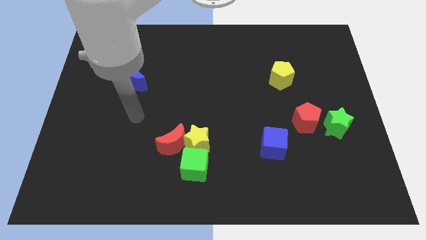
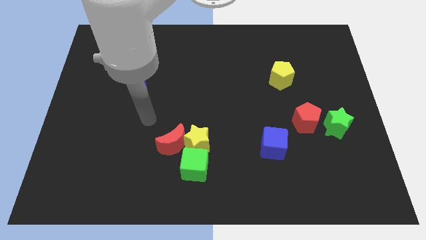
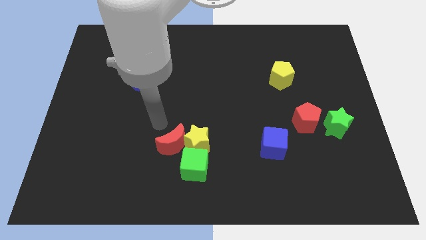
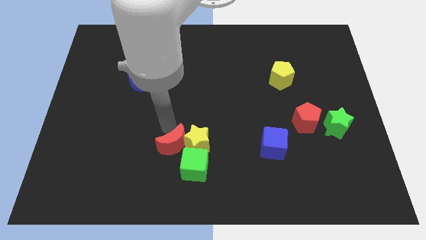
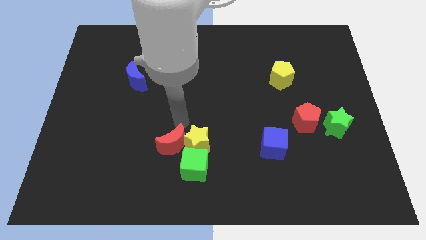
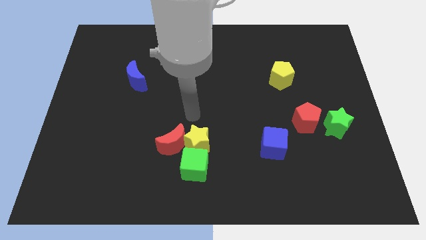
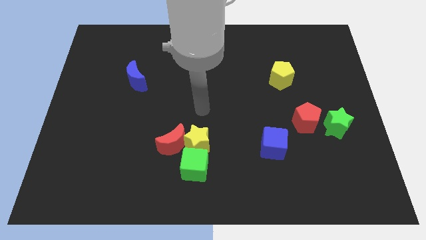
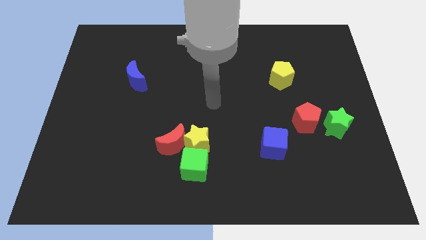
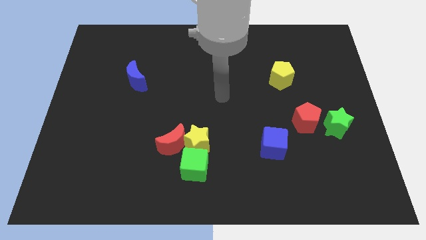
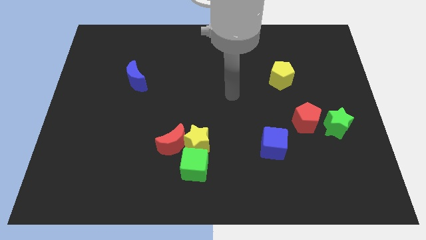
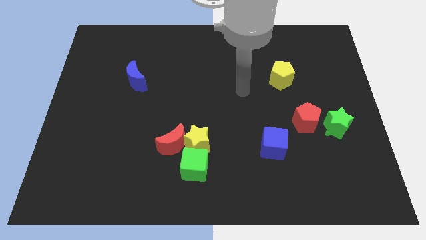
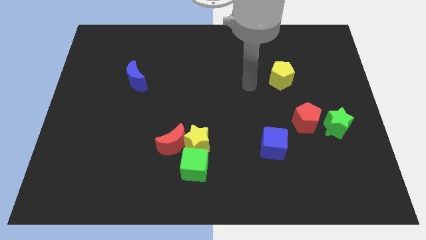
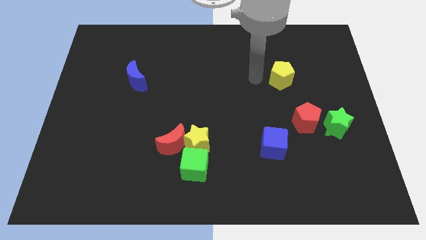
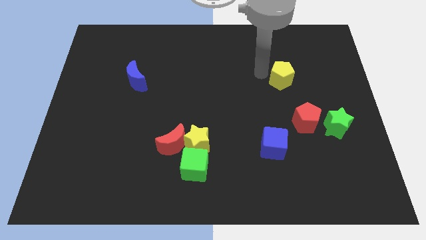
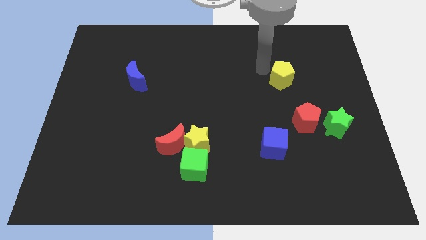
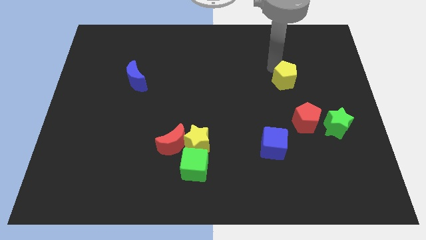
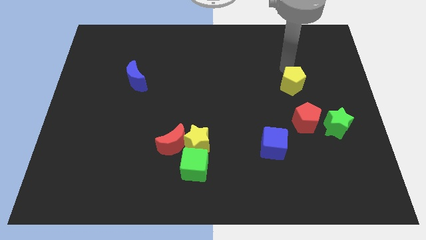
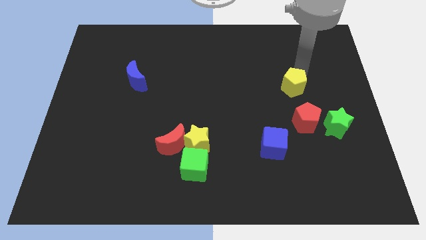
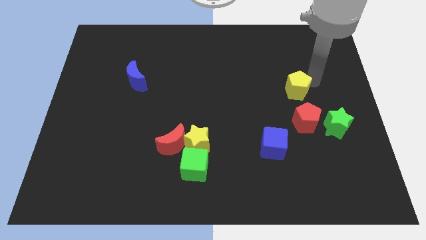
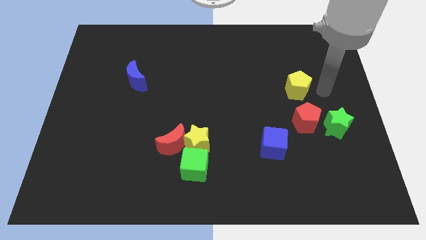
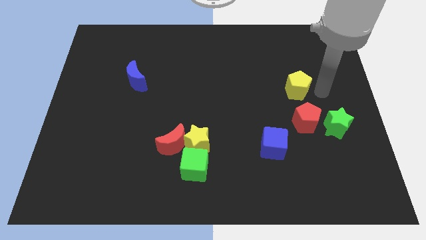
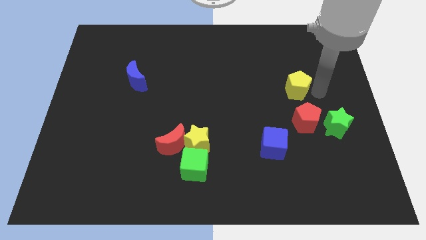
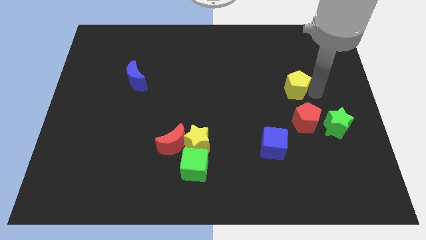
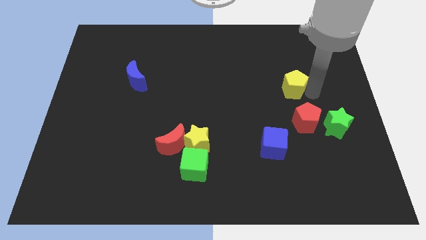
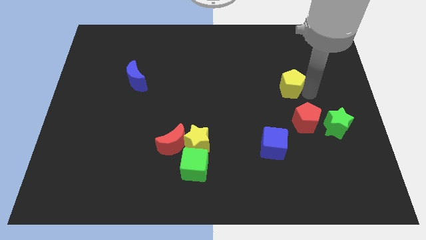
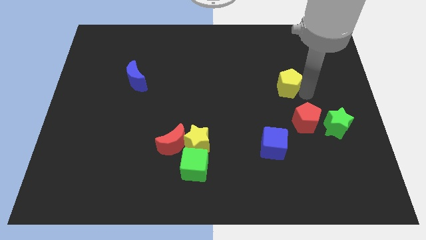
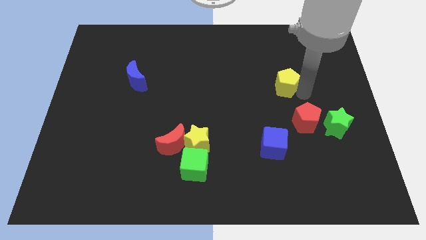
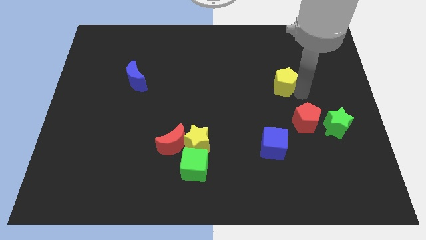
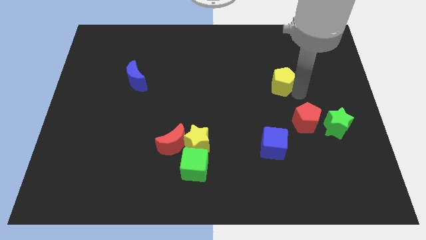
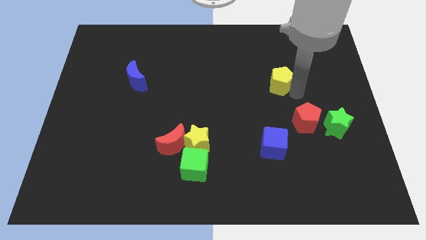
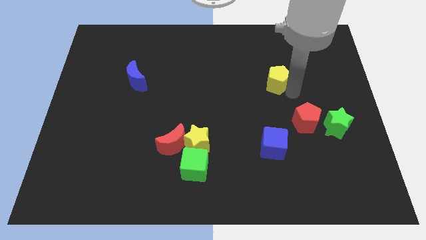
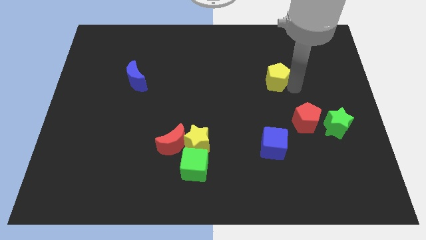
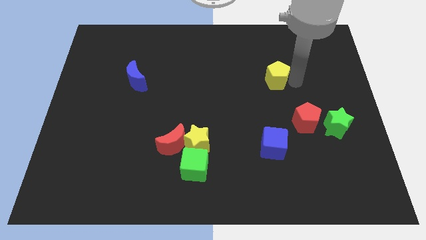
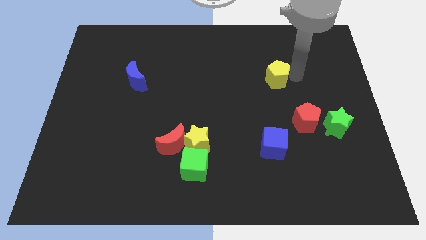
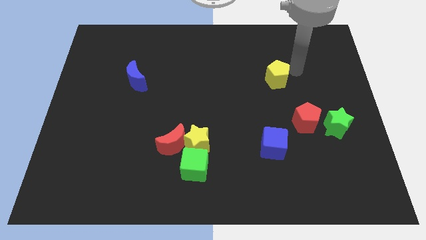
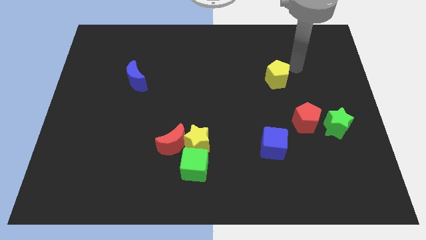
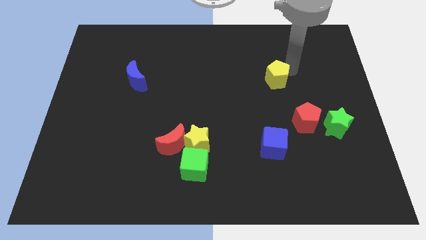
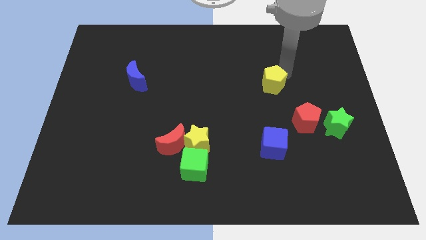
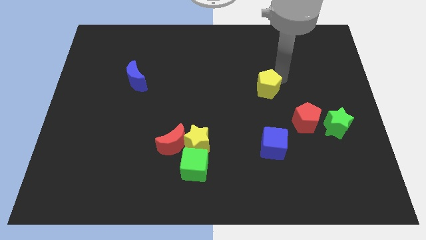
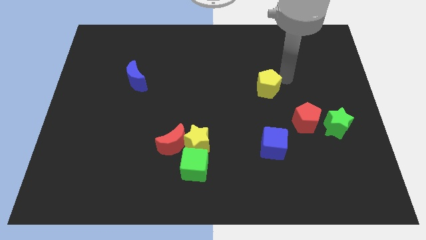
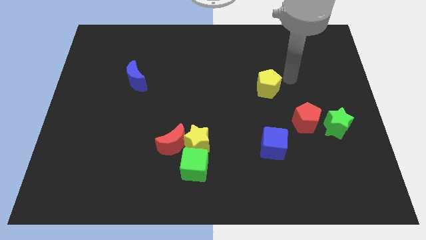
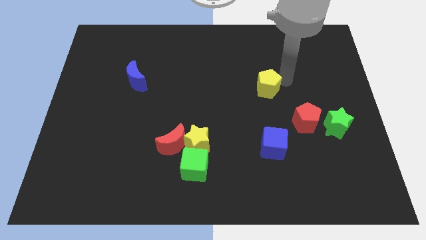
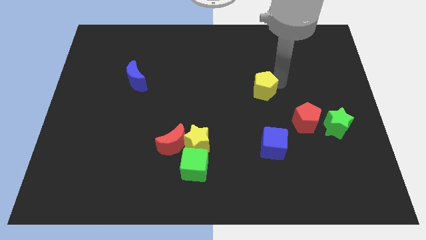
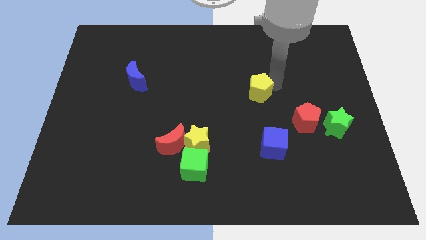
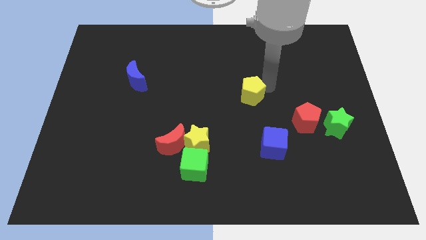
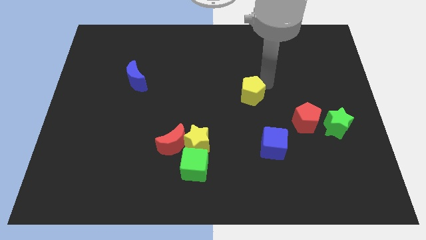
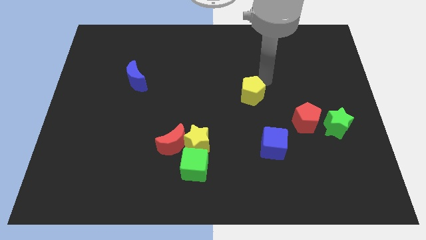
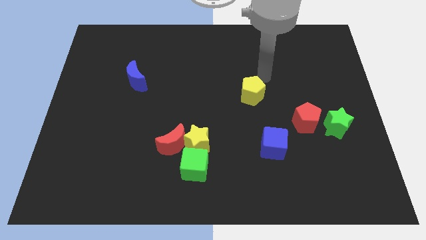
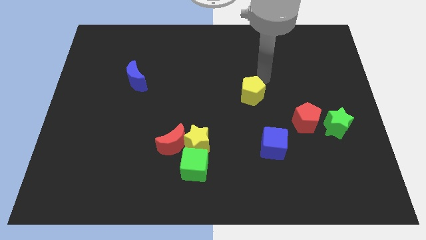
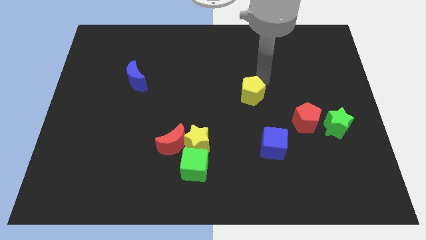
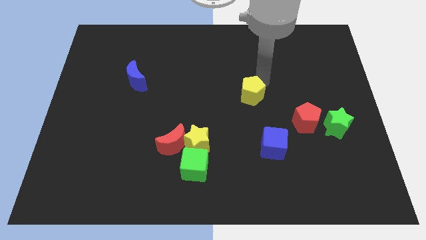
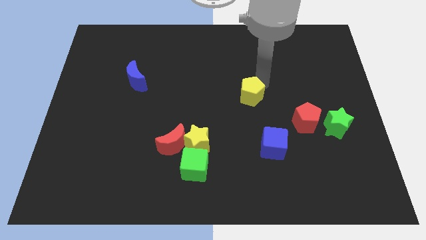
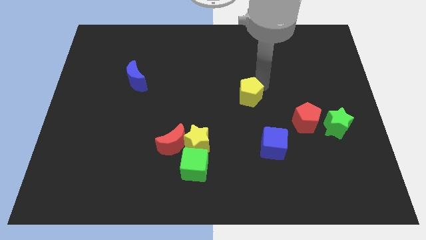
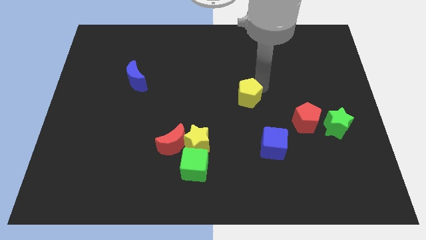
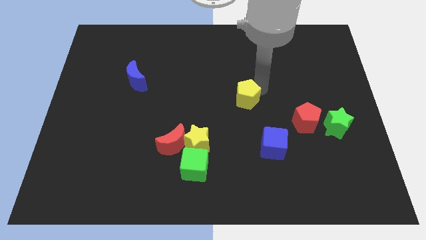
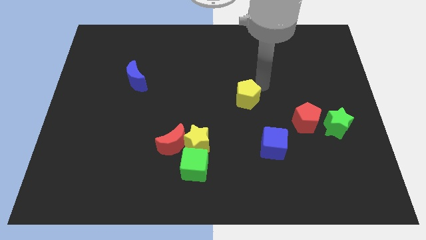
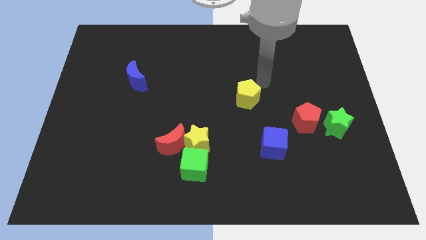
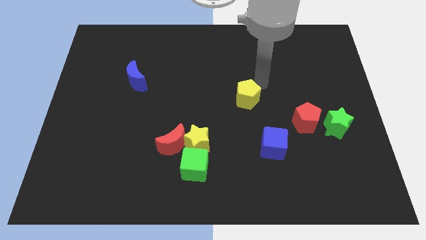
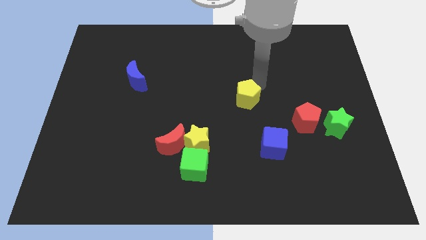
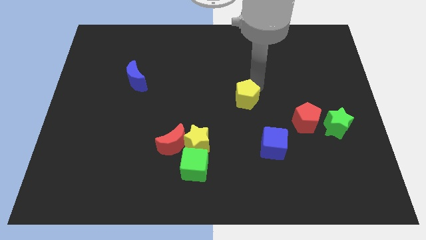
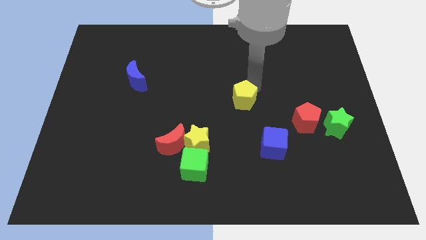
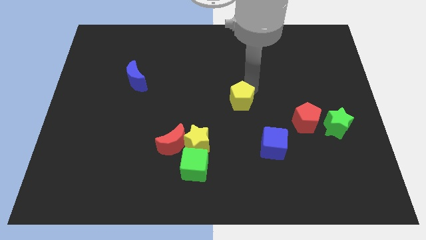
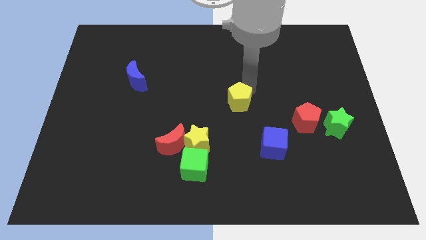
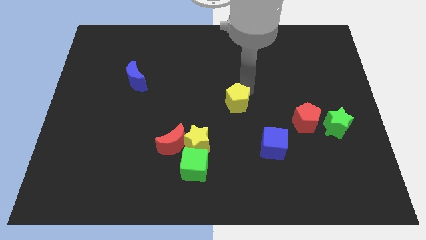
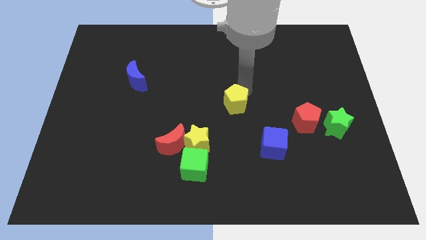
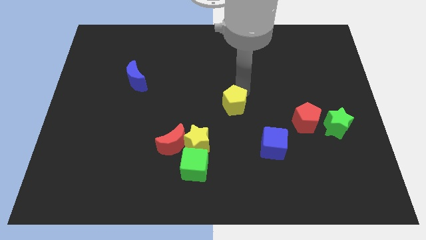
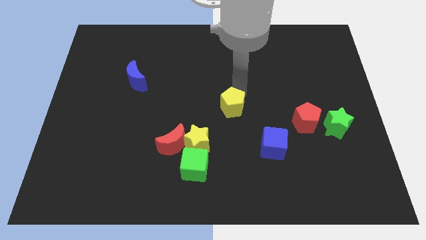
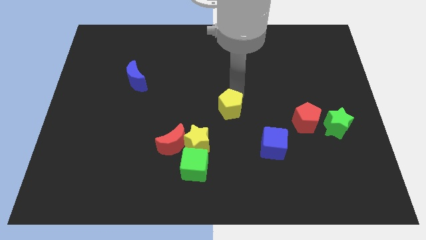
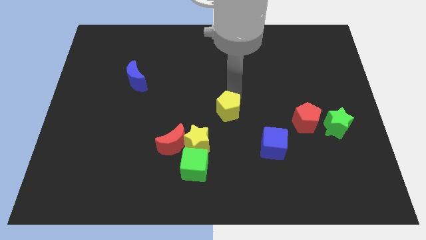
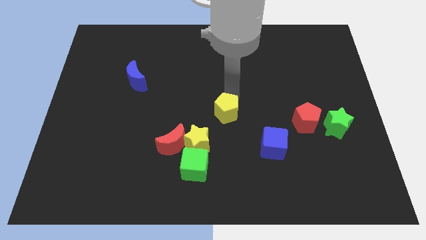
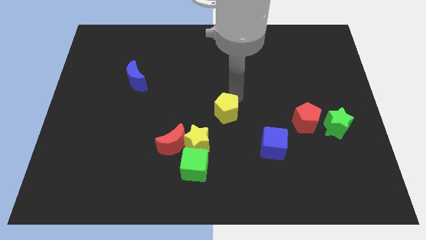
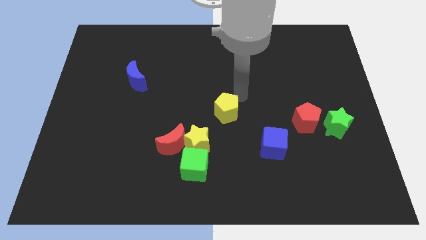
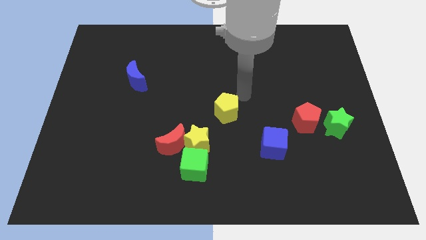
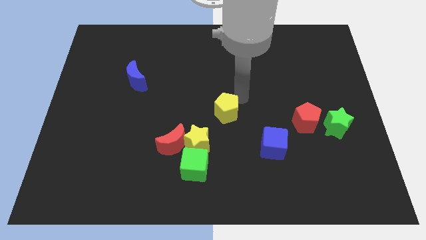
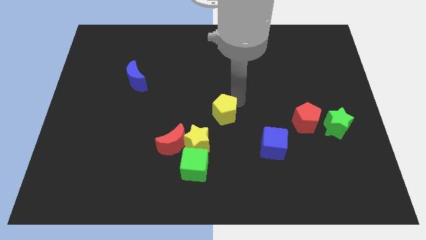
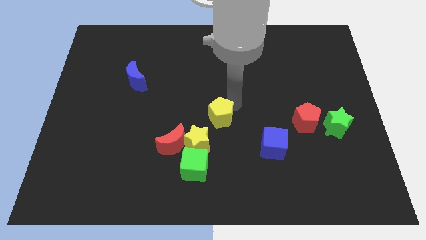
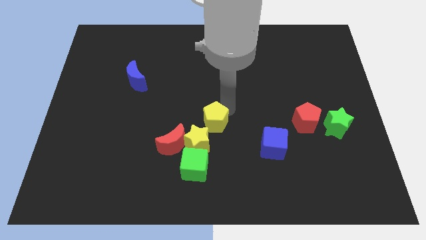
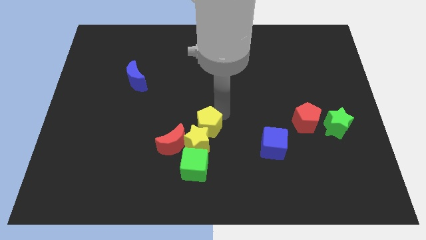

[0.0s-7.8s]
put the yellow pentagon to the yellow star
